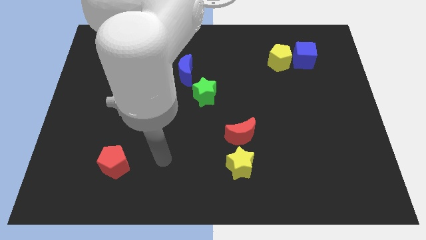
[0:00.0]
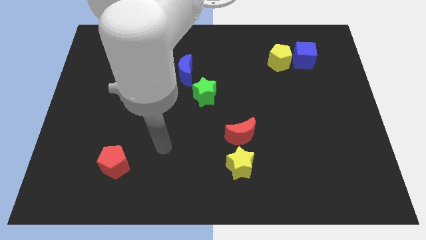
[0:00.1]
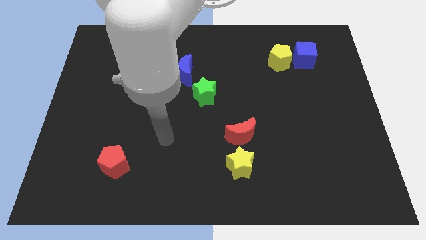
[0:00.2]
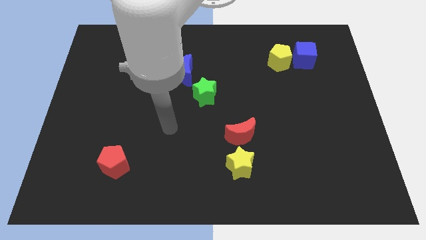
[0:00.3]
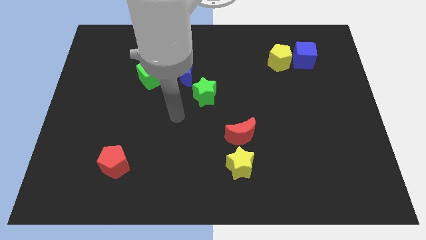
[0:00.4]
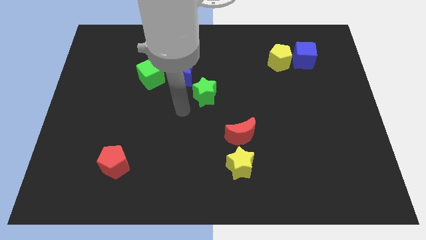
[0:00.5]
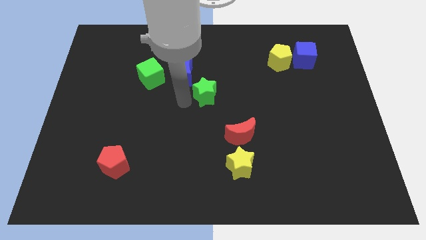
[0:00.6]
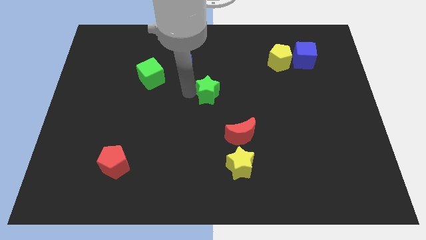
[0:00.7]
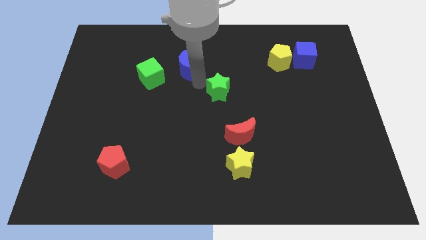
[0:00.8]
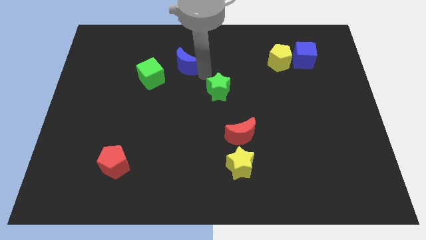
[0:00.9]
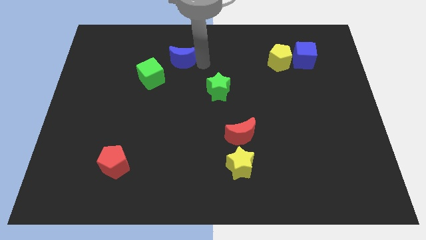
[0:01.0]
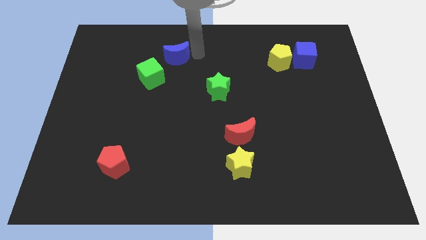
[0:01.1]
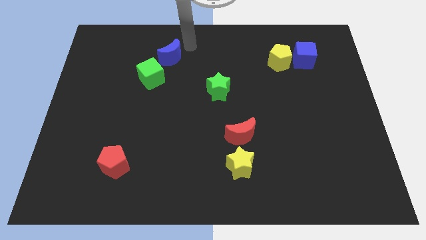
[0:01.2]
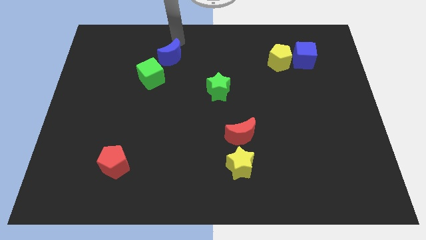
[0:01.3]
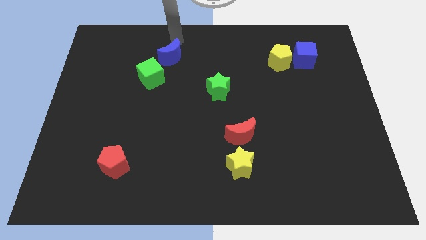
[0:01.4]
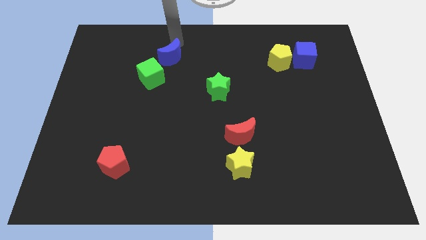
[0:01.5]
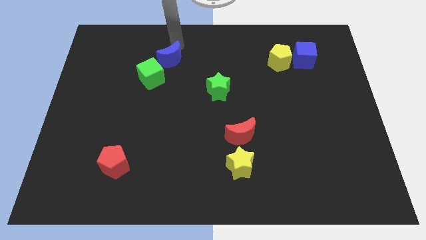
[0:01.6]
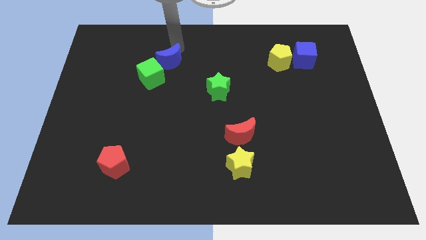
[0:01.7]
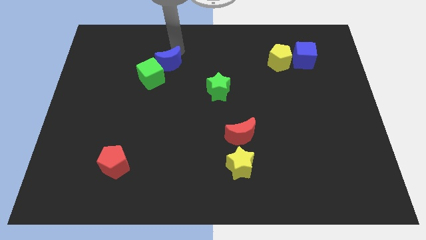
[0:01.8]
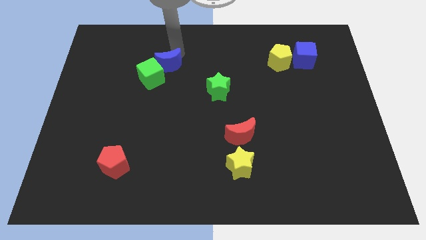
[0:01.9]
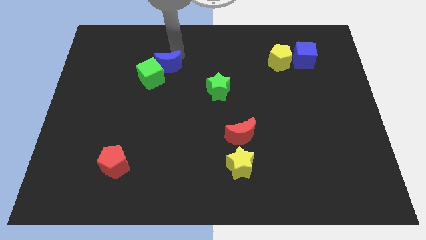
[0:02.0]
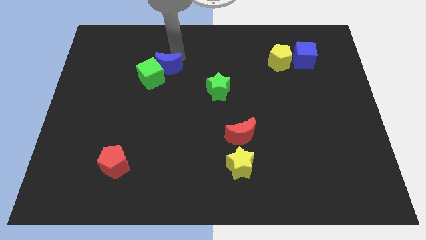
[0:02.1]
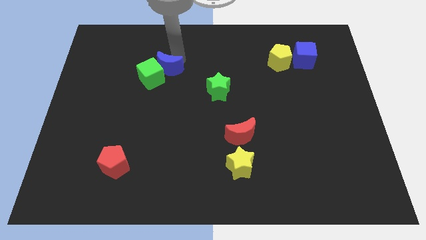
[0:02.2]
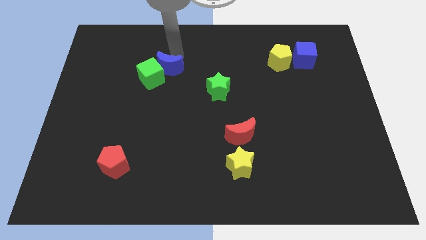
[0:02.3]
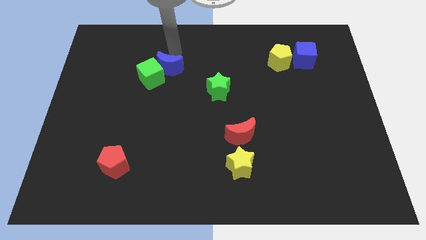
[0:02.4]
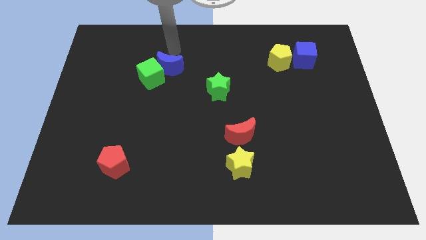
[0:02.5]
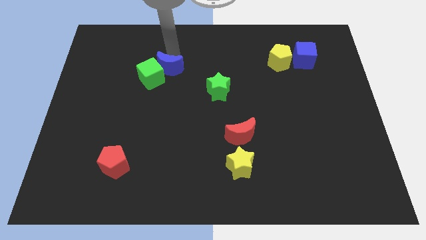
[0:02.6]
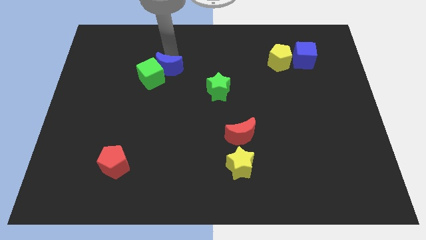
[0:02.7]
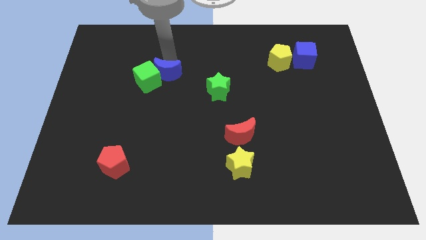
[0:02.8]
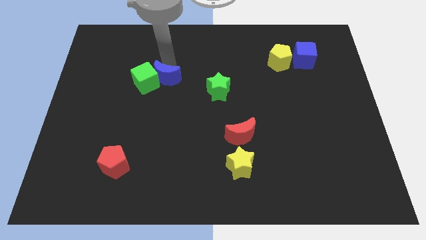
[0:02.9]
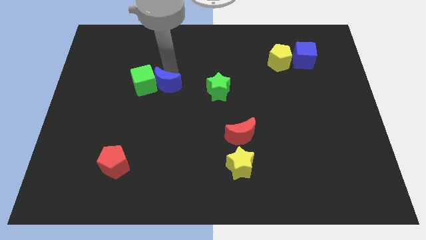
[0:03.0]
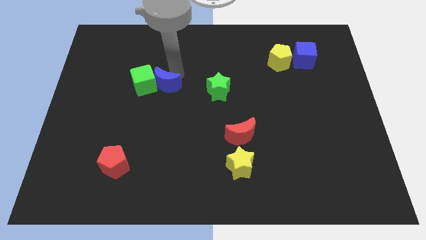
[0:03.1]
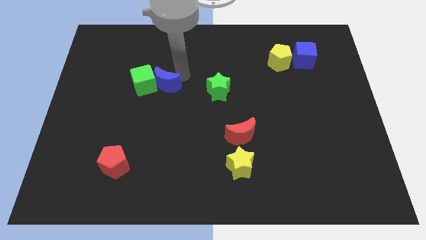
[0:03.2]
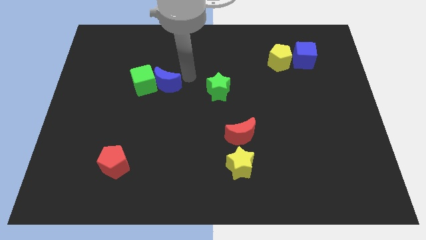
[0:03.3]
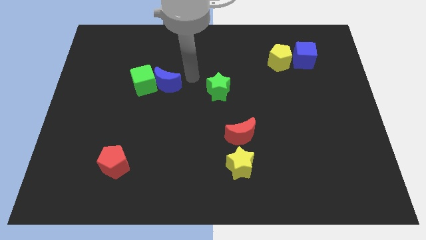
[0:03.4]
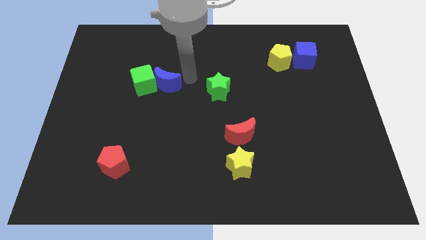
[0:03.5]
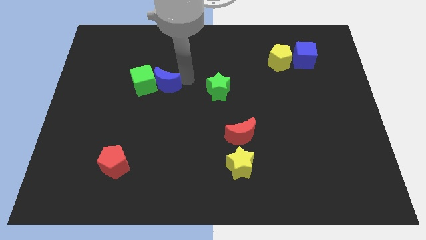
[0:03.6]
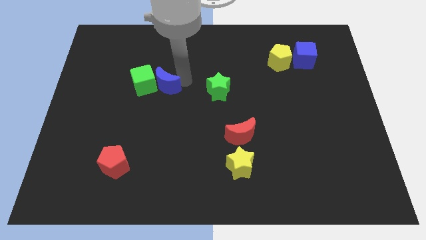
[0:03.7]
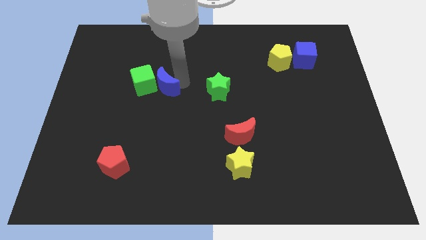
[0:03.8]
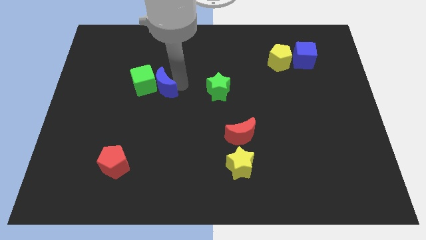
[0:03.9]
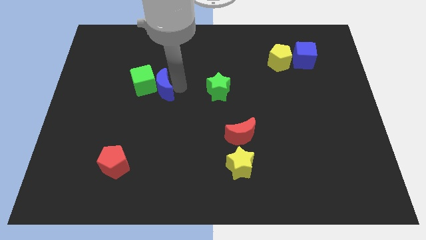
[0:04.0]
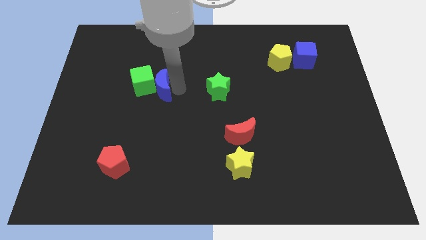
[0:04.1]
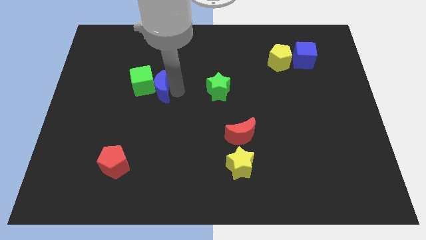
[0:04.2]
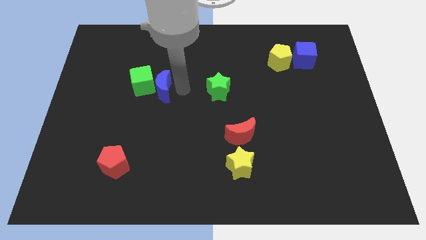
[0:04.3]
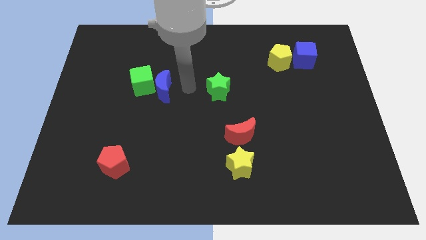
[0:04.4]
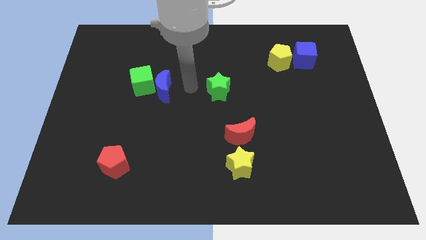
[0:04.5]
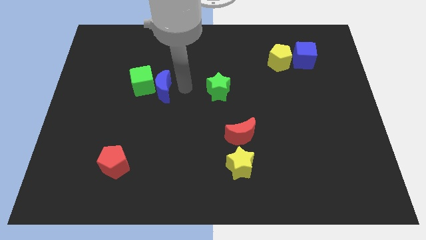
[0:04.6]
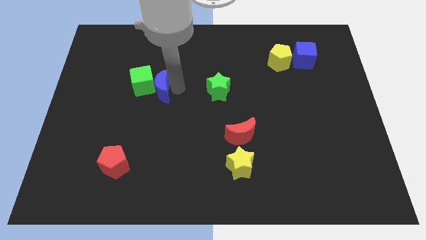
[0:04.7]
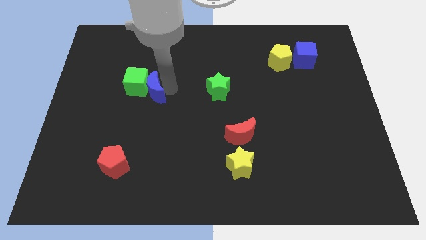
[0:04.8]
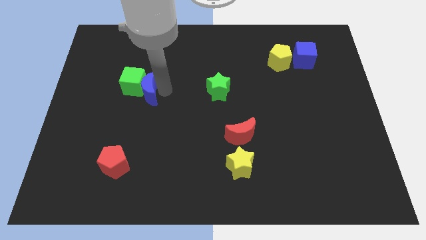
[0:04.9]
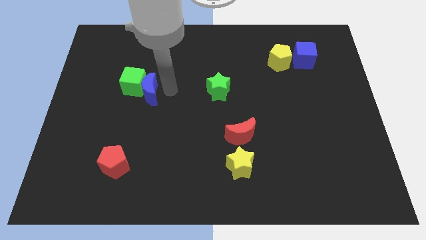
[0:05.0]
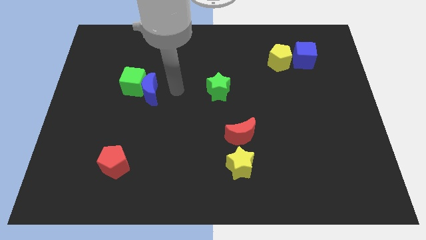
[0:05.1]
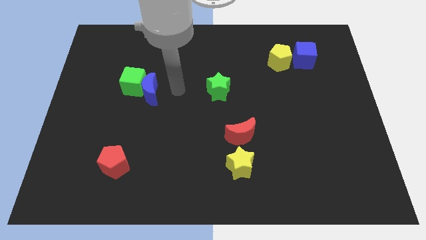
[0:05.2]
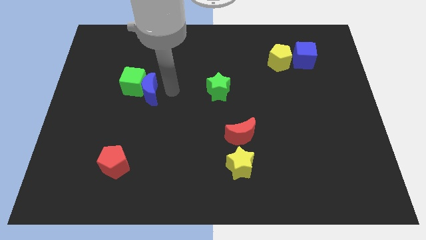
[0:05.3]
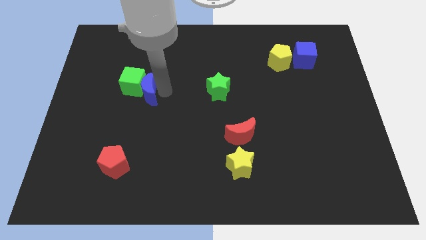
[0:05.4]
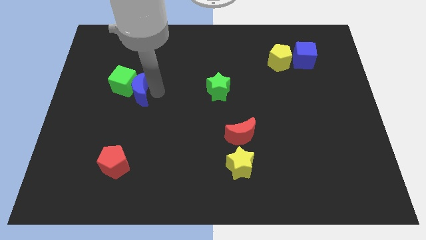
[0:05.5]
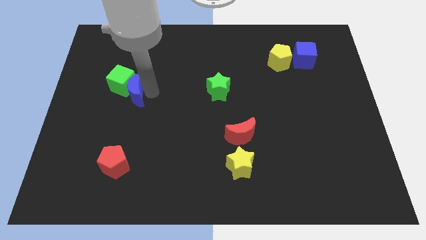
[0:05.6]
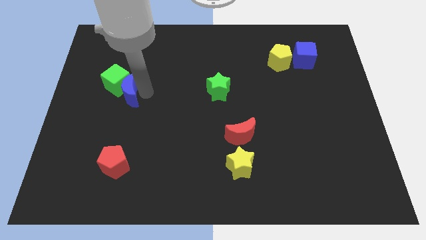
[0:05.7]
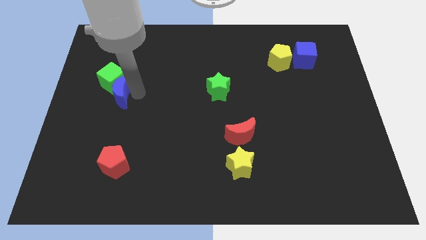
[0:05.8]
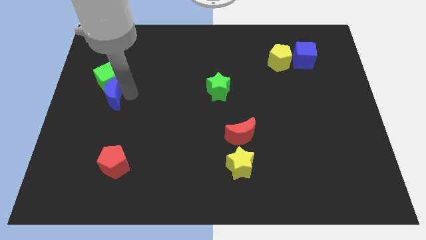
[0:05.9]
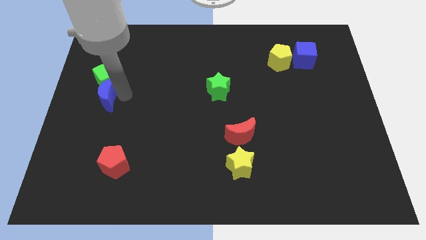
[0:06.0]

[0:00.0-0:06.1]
put the blue moon to the center left

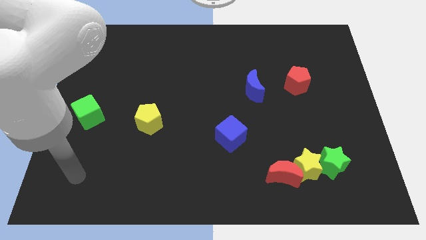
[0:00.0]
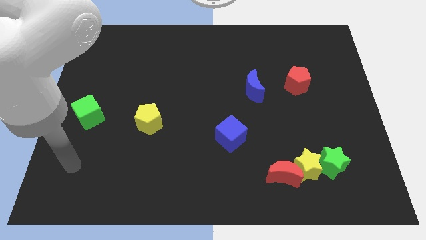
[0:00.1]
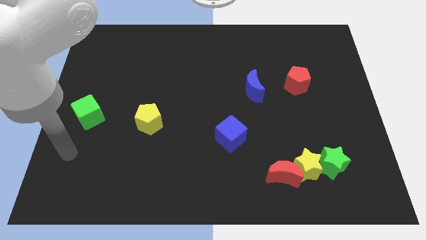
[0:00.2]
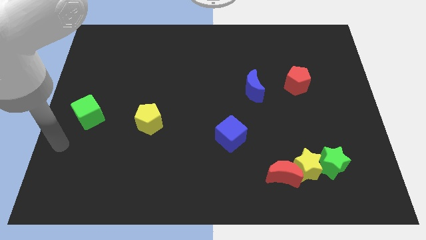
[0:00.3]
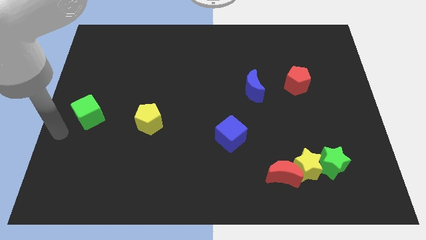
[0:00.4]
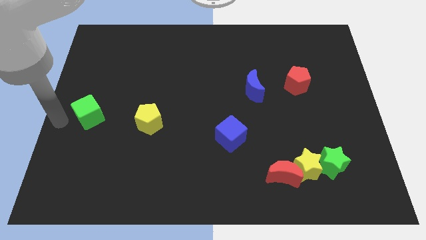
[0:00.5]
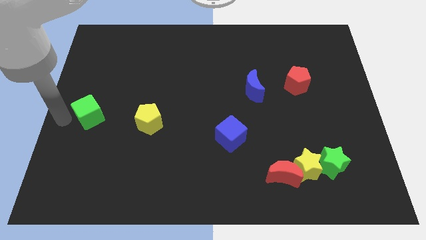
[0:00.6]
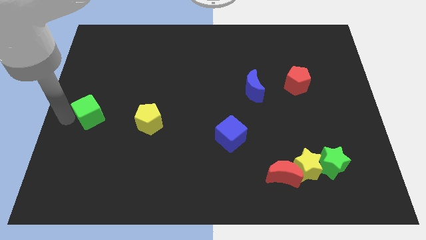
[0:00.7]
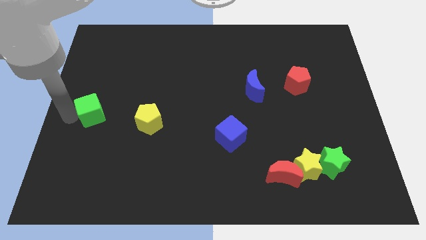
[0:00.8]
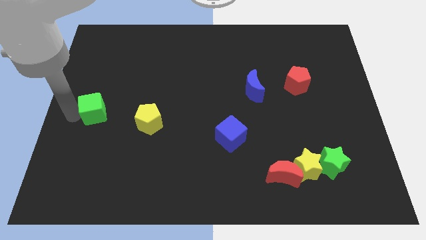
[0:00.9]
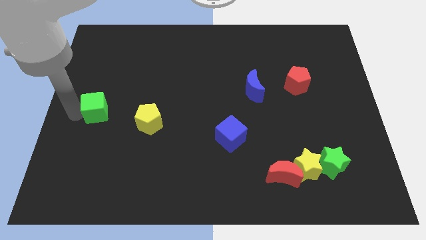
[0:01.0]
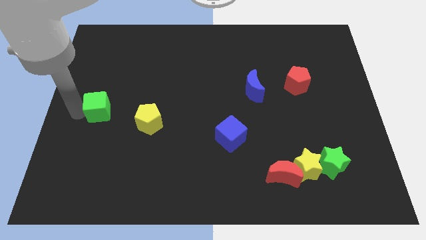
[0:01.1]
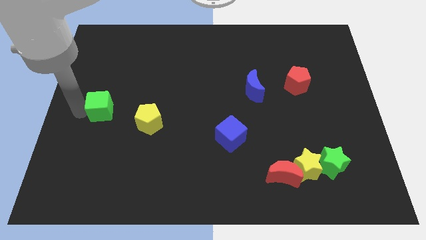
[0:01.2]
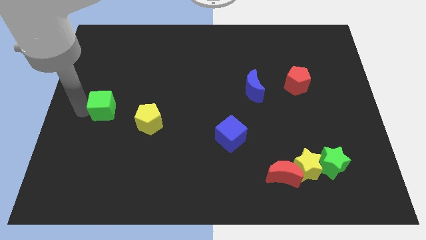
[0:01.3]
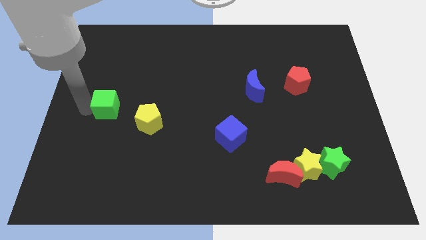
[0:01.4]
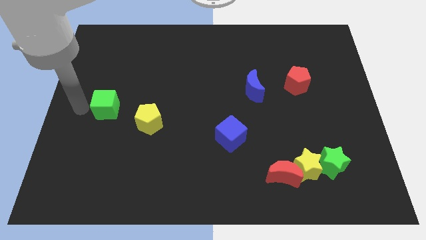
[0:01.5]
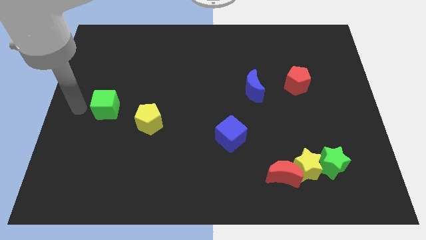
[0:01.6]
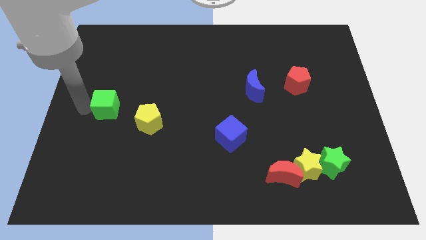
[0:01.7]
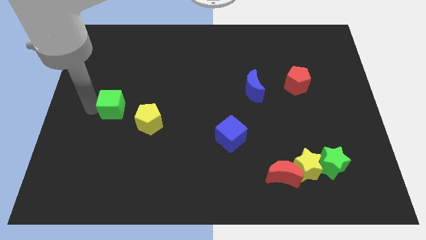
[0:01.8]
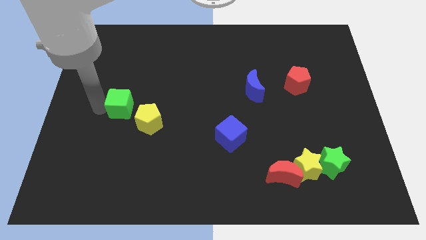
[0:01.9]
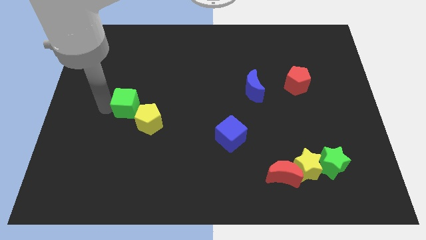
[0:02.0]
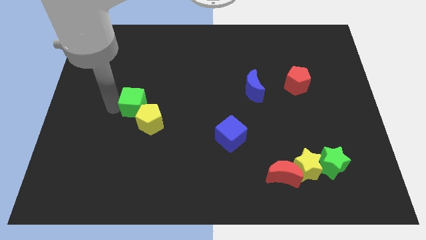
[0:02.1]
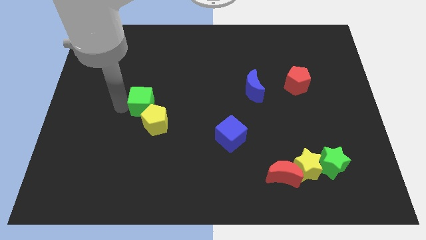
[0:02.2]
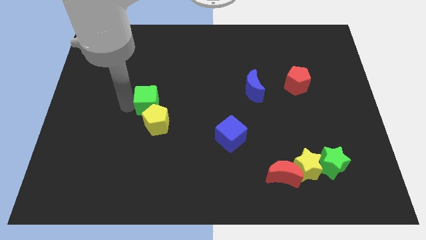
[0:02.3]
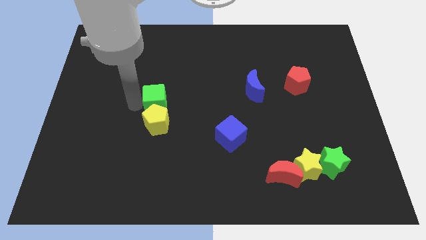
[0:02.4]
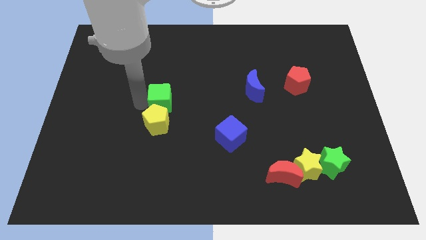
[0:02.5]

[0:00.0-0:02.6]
push the green cube to the middle of the board
